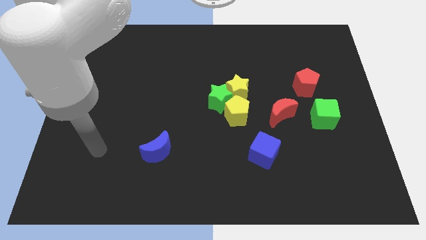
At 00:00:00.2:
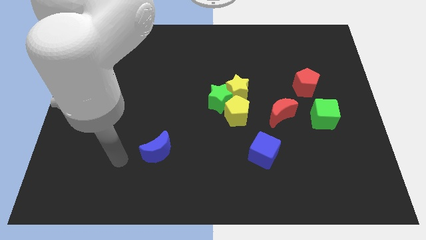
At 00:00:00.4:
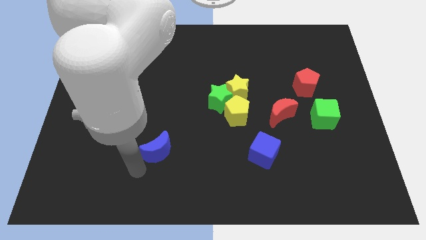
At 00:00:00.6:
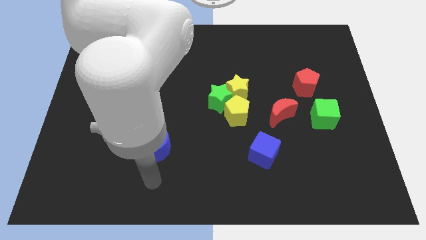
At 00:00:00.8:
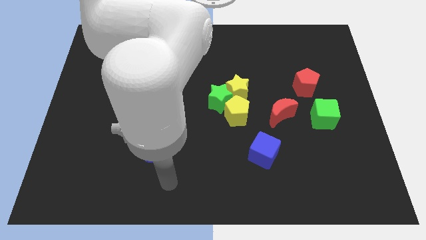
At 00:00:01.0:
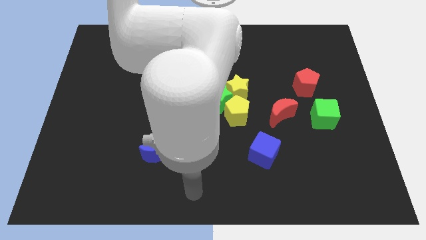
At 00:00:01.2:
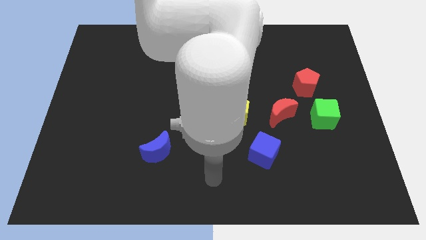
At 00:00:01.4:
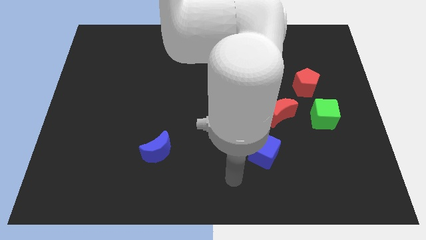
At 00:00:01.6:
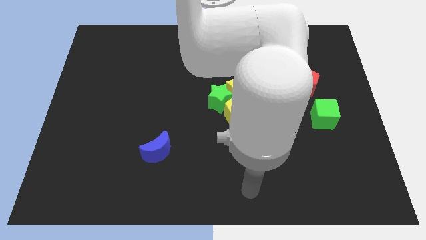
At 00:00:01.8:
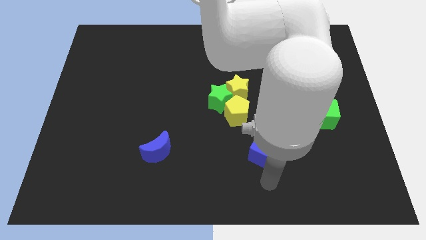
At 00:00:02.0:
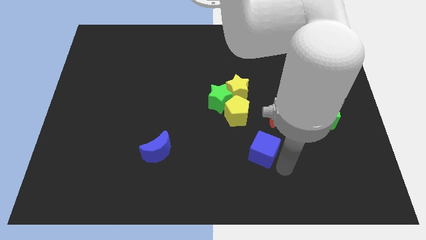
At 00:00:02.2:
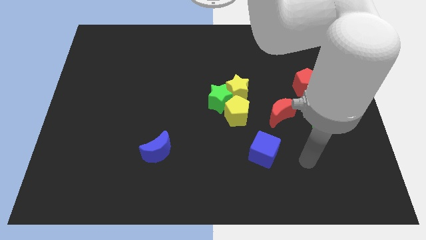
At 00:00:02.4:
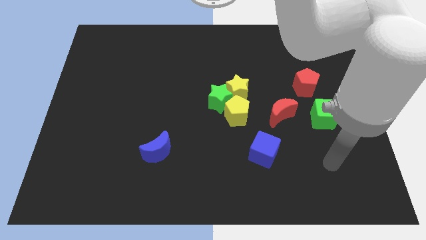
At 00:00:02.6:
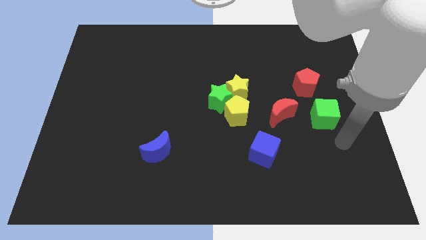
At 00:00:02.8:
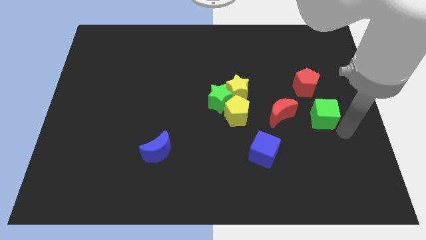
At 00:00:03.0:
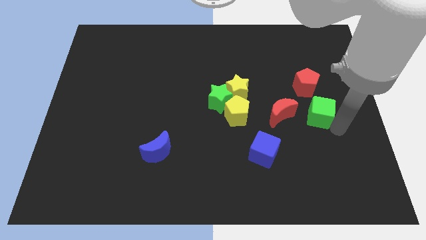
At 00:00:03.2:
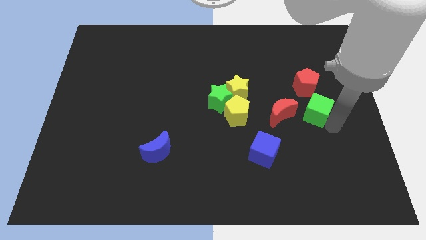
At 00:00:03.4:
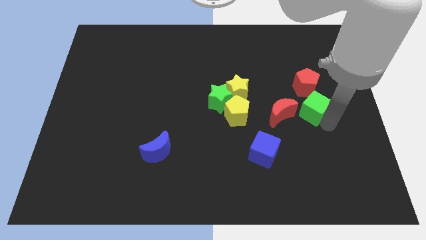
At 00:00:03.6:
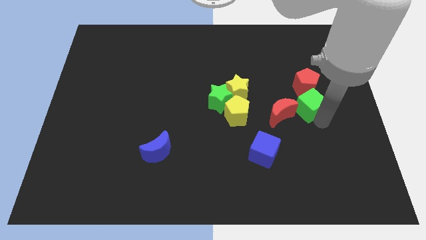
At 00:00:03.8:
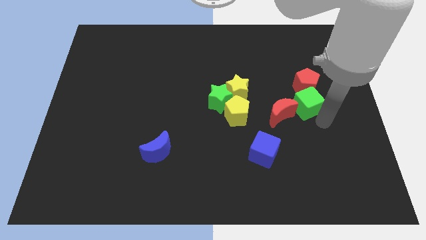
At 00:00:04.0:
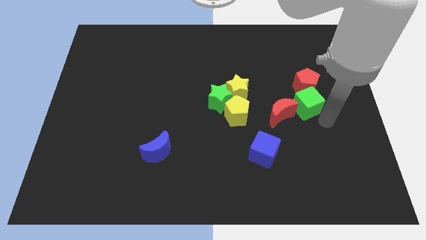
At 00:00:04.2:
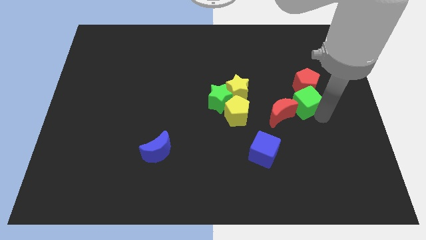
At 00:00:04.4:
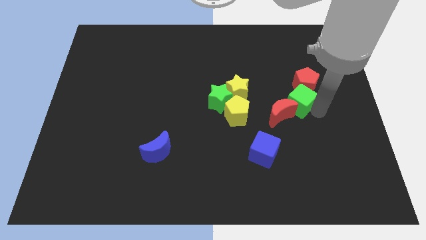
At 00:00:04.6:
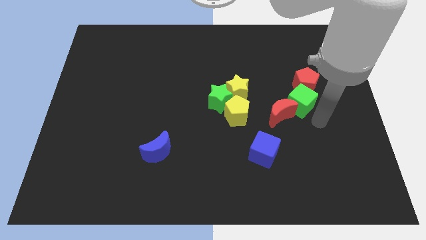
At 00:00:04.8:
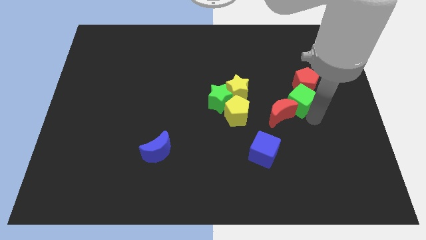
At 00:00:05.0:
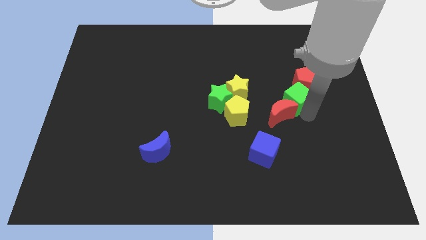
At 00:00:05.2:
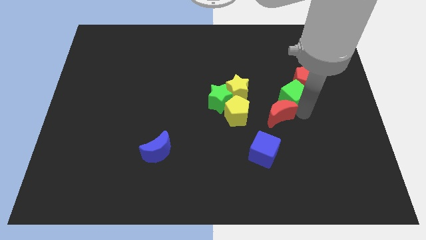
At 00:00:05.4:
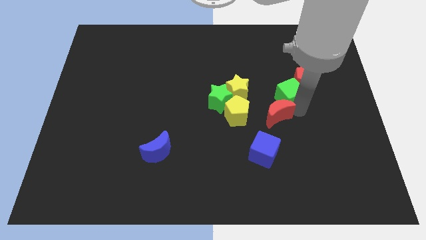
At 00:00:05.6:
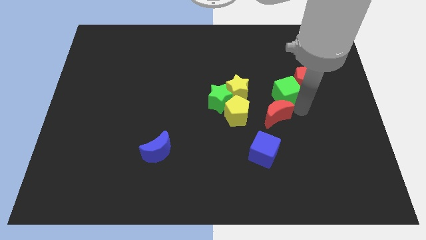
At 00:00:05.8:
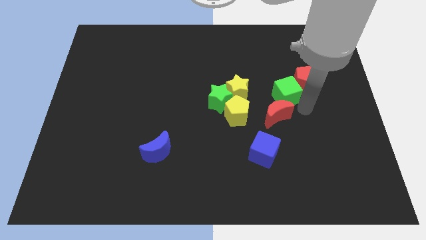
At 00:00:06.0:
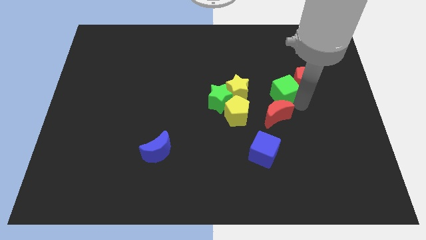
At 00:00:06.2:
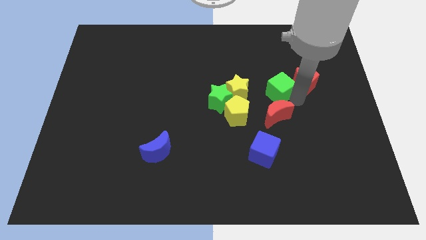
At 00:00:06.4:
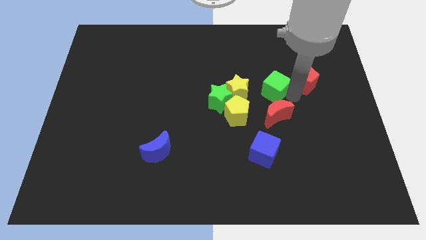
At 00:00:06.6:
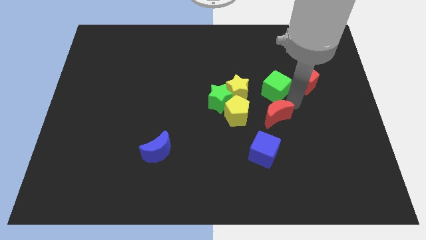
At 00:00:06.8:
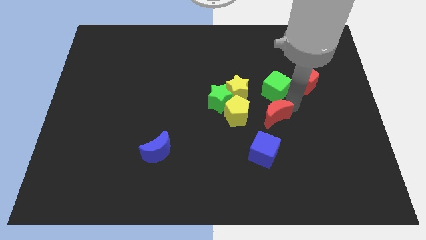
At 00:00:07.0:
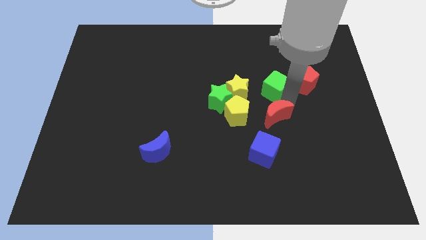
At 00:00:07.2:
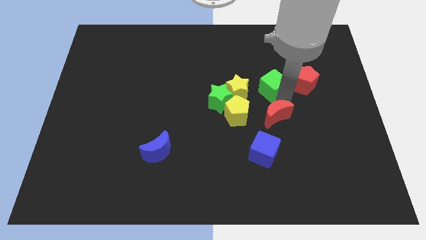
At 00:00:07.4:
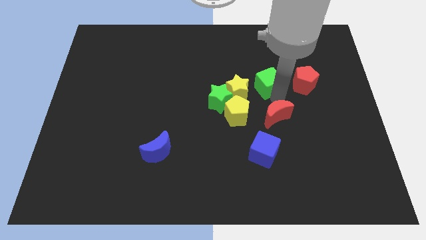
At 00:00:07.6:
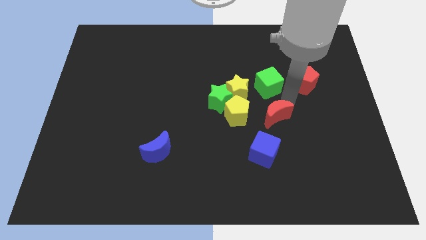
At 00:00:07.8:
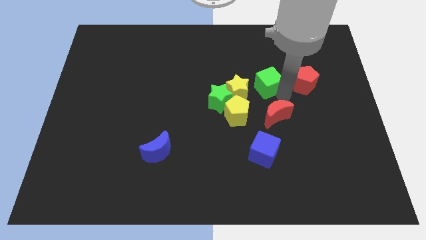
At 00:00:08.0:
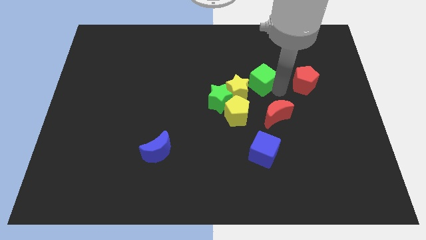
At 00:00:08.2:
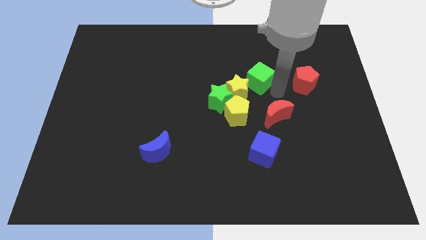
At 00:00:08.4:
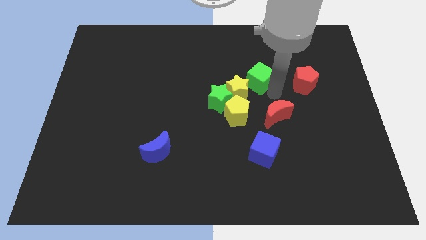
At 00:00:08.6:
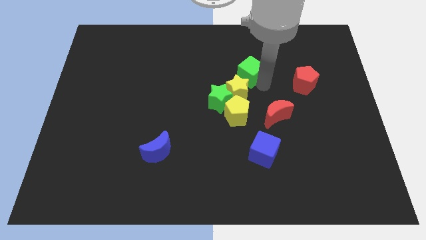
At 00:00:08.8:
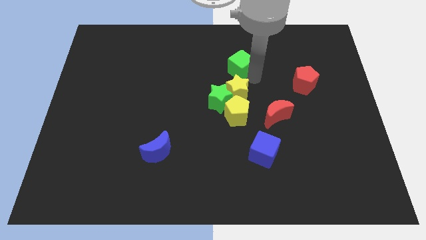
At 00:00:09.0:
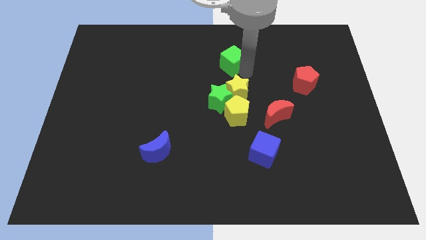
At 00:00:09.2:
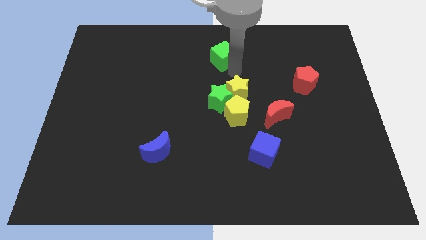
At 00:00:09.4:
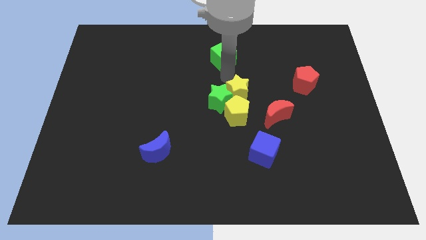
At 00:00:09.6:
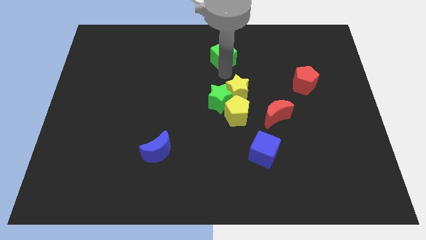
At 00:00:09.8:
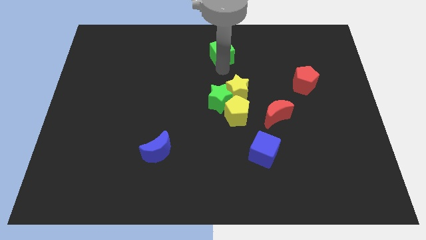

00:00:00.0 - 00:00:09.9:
push the green cube to the top

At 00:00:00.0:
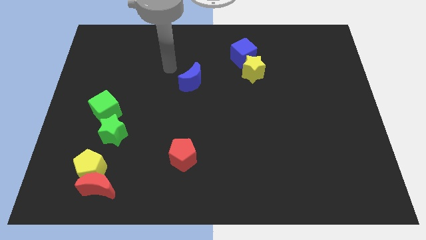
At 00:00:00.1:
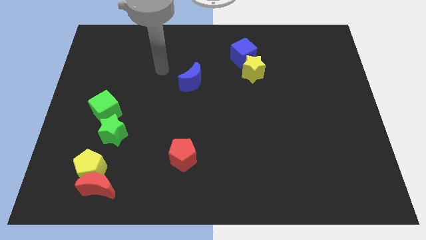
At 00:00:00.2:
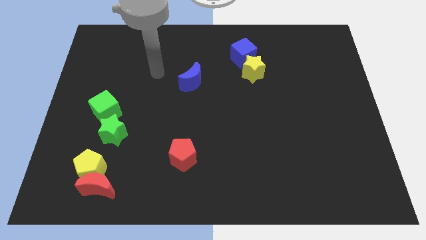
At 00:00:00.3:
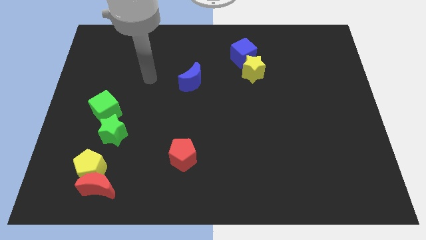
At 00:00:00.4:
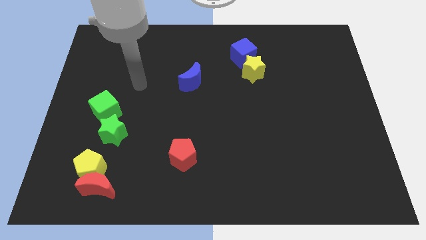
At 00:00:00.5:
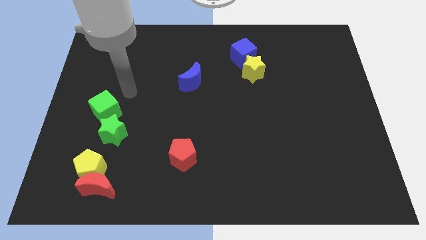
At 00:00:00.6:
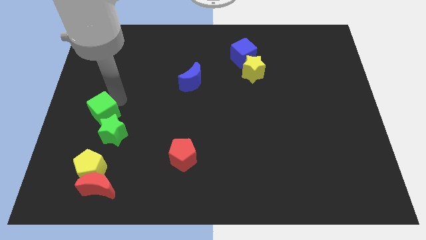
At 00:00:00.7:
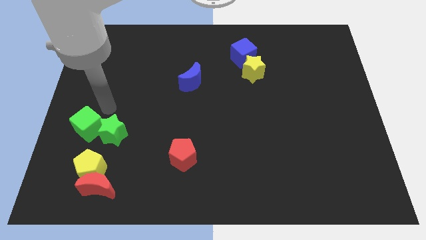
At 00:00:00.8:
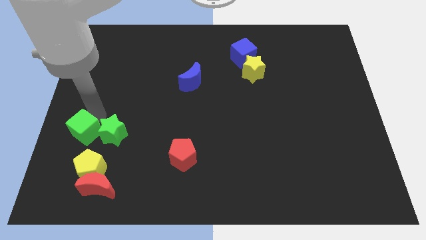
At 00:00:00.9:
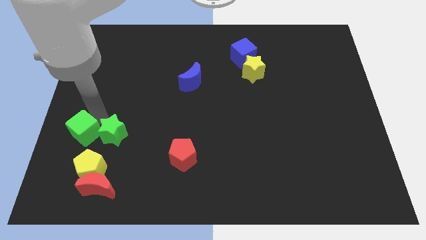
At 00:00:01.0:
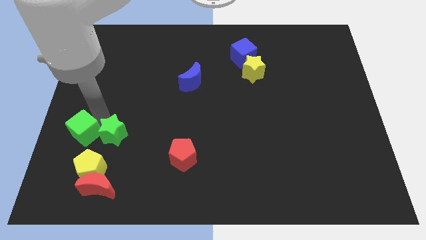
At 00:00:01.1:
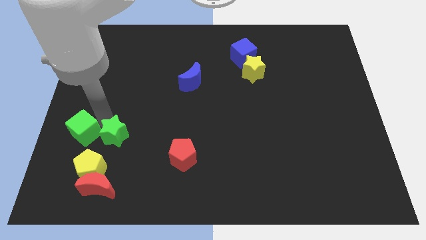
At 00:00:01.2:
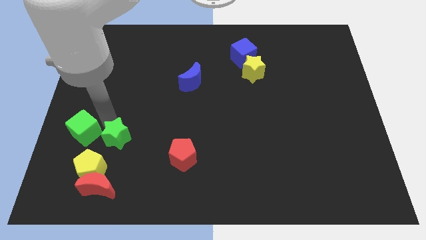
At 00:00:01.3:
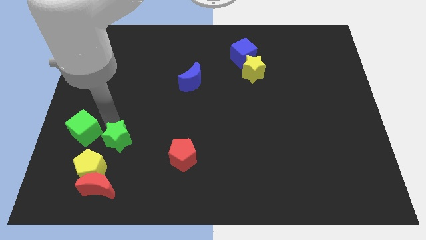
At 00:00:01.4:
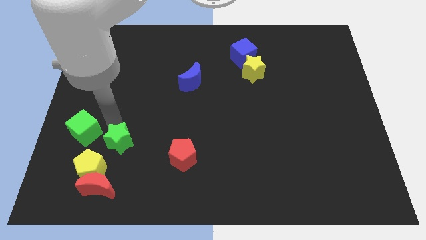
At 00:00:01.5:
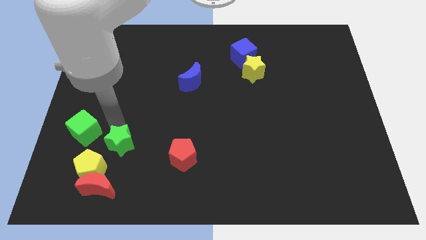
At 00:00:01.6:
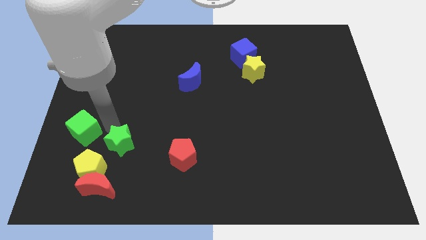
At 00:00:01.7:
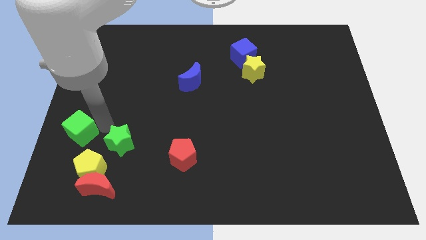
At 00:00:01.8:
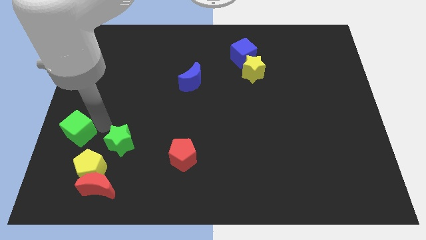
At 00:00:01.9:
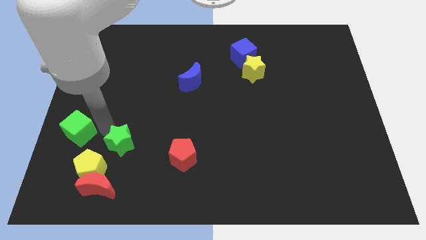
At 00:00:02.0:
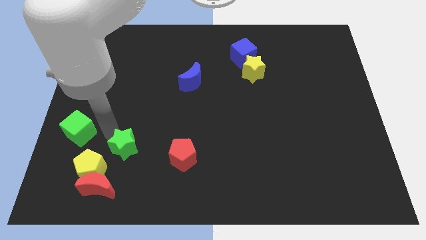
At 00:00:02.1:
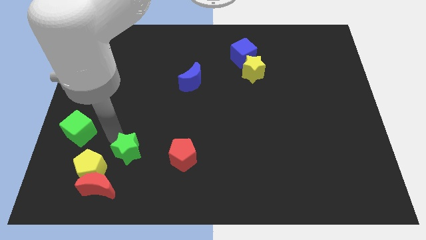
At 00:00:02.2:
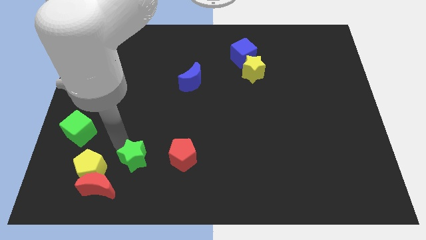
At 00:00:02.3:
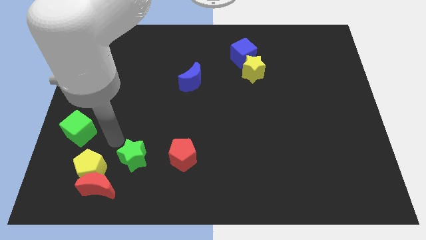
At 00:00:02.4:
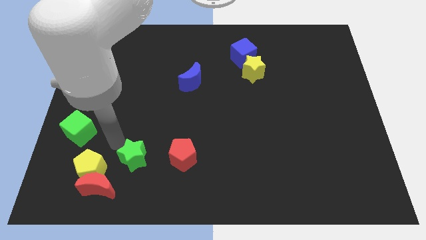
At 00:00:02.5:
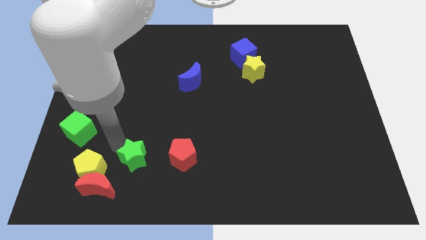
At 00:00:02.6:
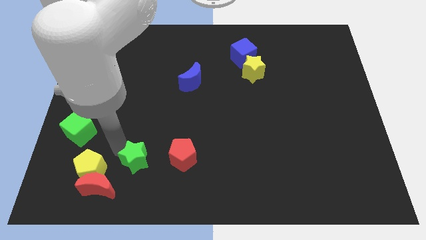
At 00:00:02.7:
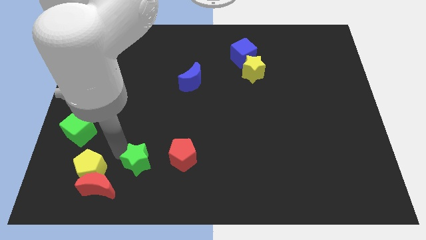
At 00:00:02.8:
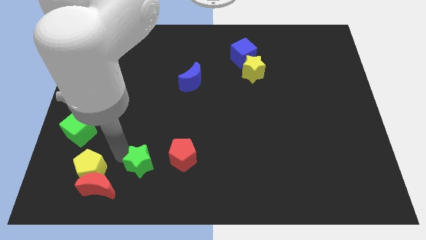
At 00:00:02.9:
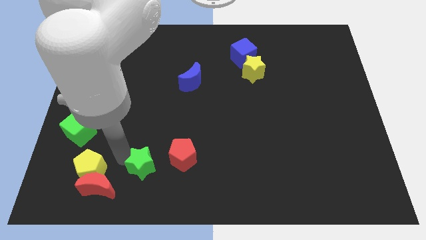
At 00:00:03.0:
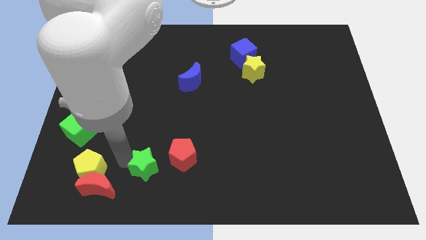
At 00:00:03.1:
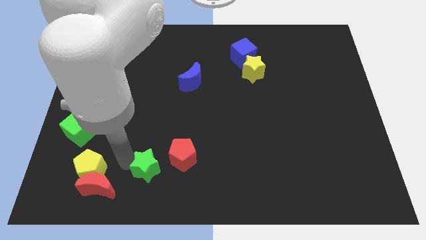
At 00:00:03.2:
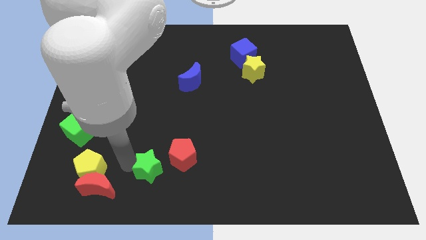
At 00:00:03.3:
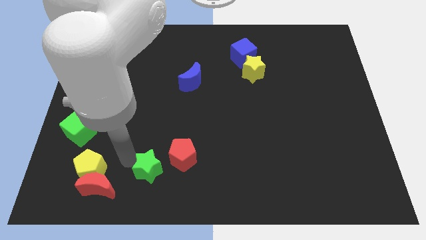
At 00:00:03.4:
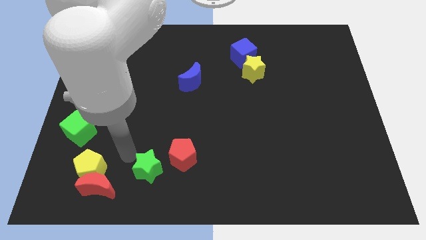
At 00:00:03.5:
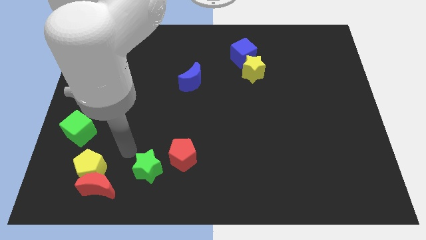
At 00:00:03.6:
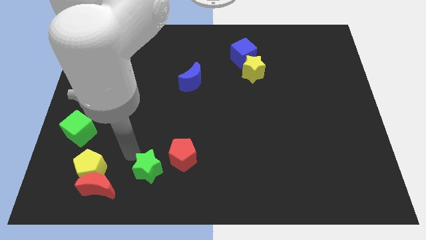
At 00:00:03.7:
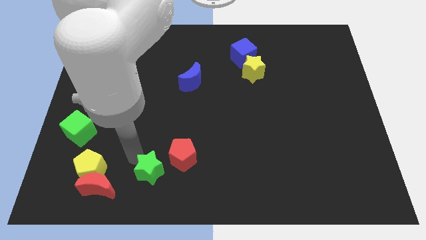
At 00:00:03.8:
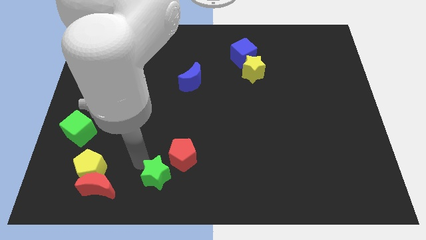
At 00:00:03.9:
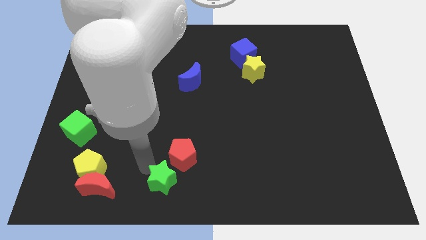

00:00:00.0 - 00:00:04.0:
push the green star to the bottom side
